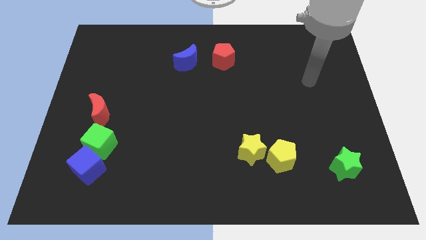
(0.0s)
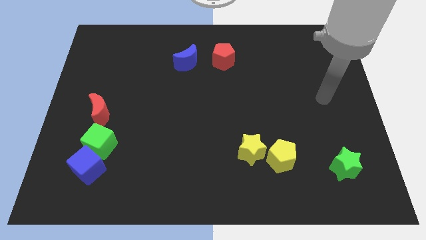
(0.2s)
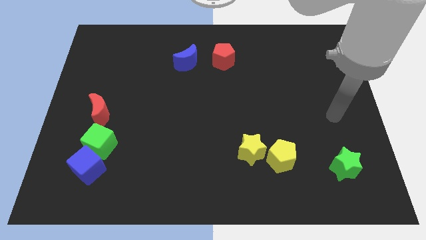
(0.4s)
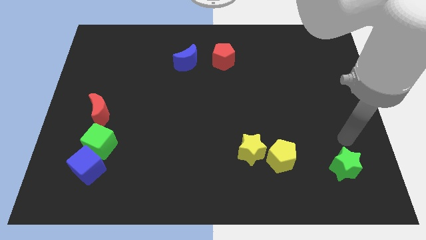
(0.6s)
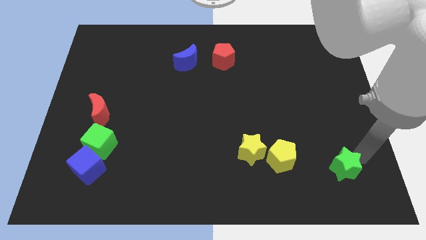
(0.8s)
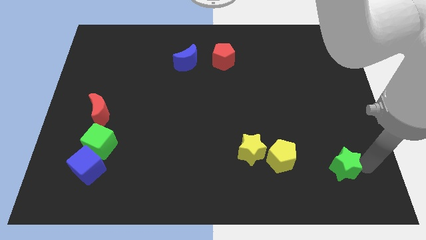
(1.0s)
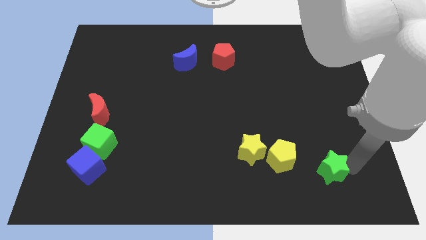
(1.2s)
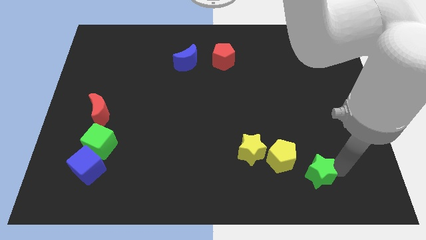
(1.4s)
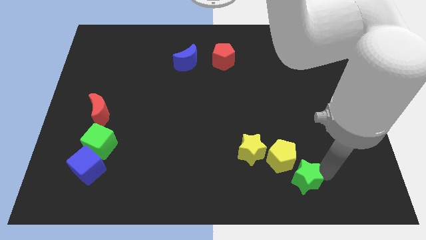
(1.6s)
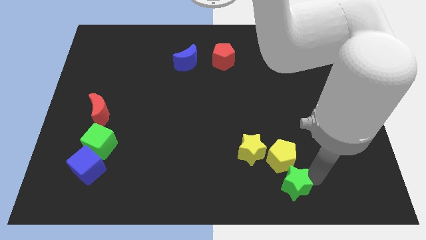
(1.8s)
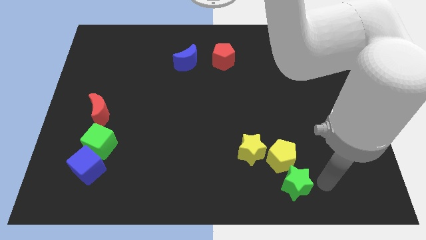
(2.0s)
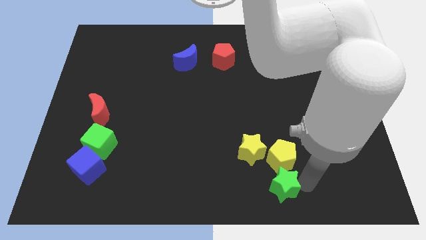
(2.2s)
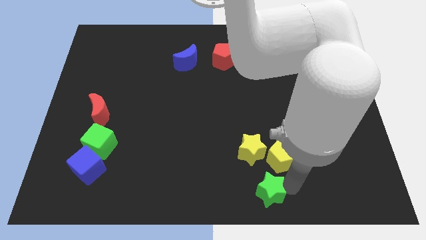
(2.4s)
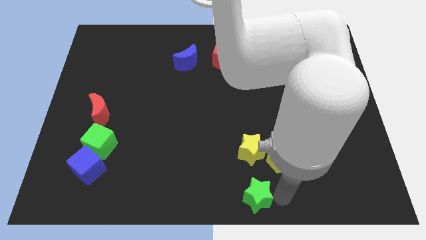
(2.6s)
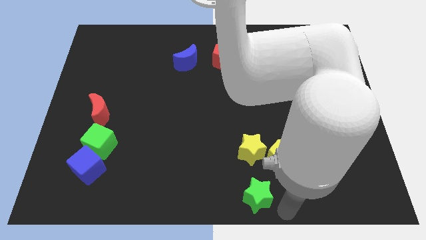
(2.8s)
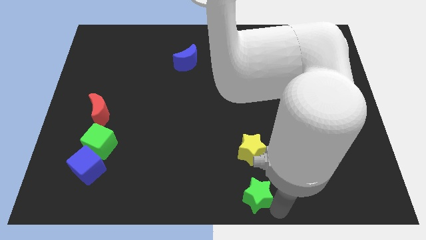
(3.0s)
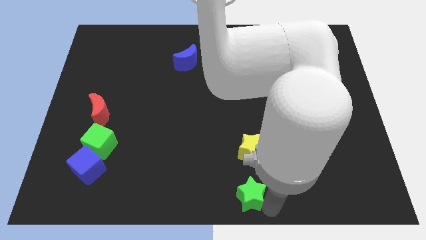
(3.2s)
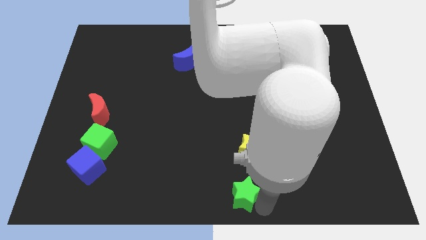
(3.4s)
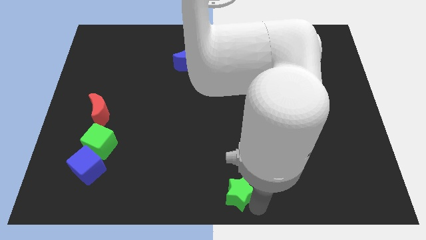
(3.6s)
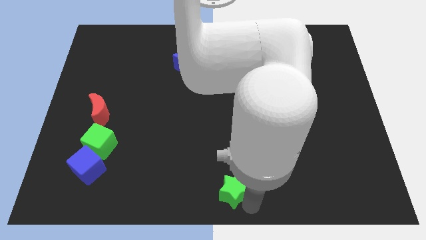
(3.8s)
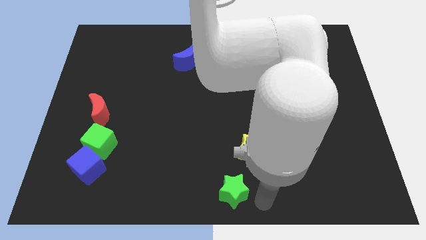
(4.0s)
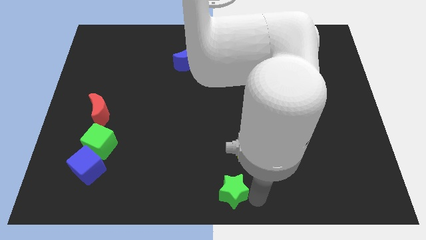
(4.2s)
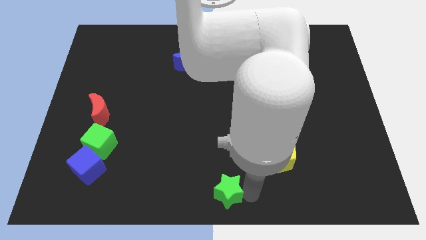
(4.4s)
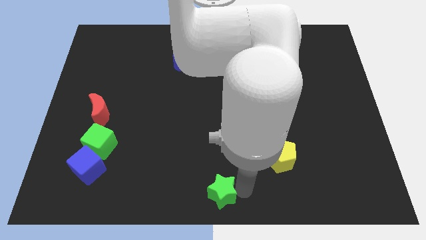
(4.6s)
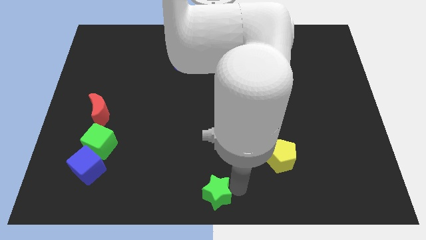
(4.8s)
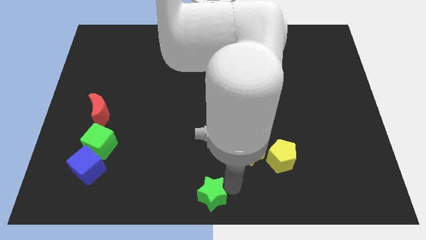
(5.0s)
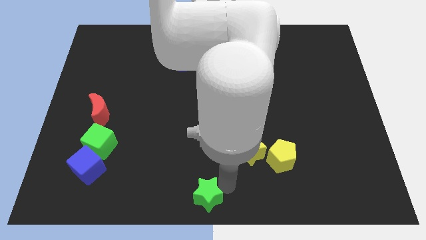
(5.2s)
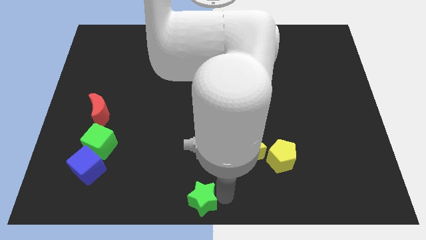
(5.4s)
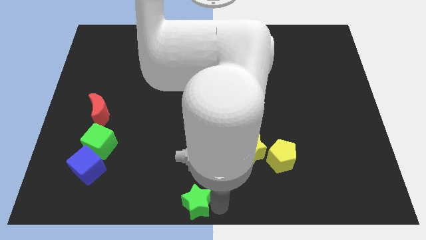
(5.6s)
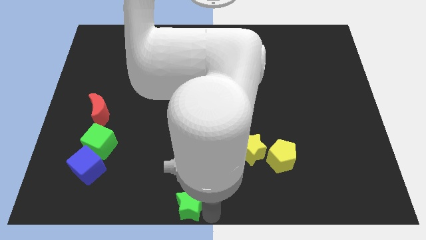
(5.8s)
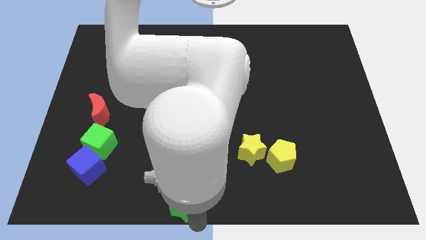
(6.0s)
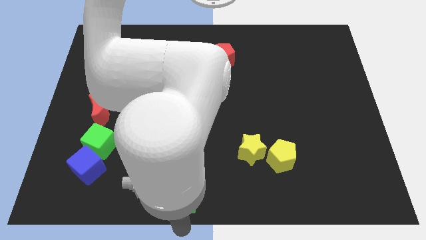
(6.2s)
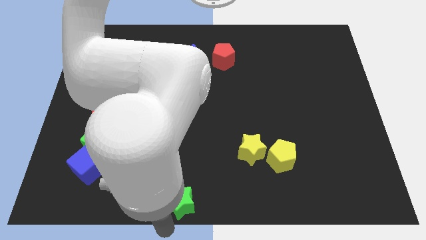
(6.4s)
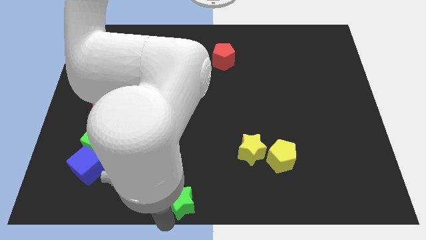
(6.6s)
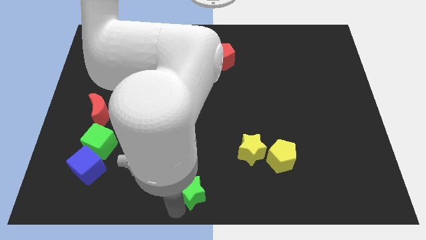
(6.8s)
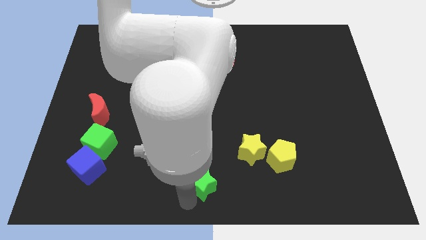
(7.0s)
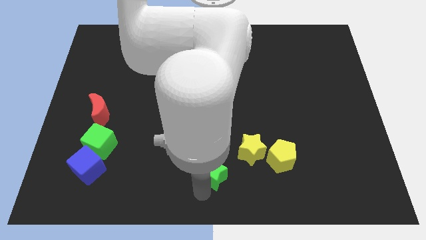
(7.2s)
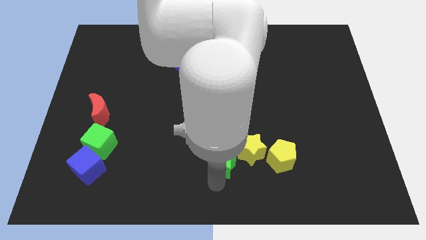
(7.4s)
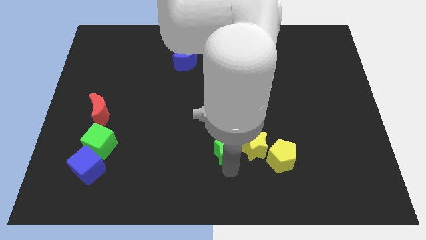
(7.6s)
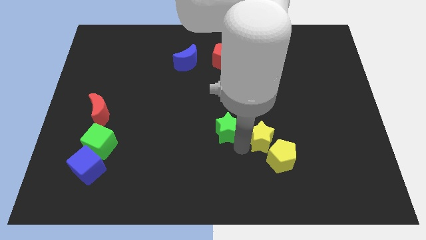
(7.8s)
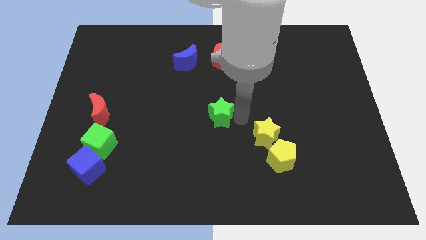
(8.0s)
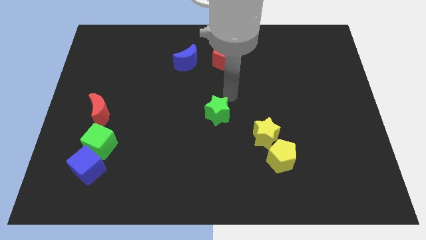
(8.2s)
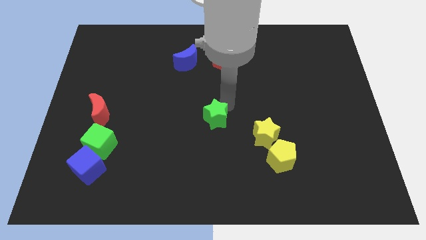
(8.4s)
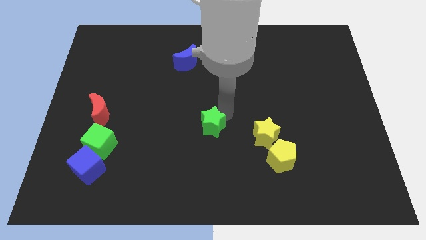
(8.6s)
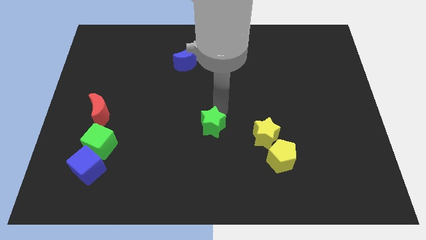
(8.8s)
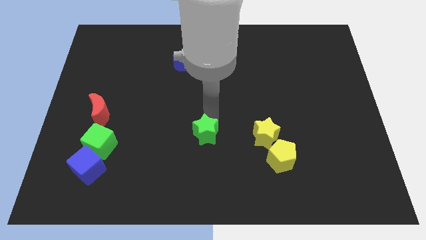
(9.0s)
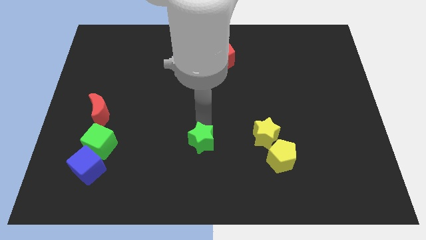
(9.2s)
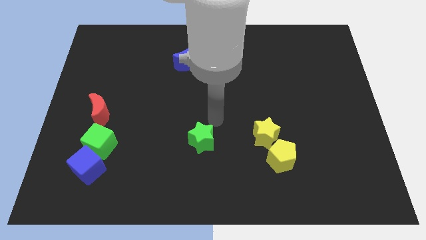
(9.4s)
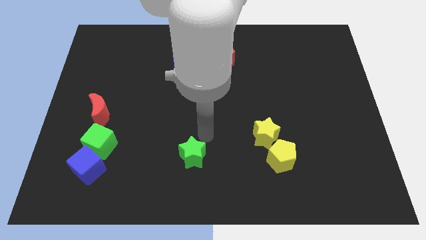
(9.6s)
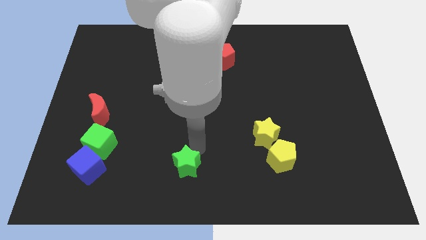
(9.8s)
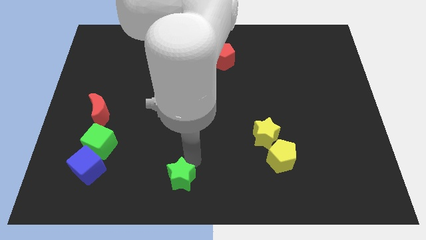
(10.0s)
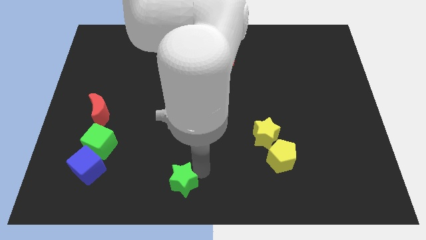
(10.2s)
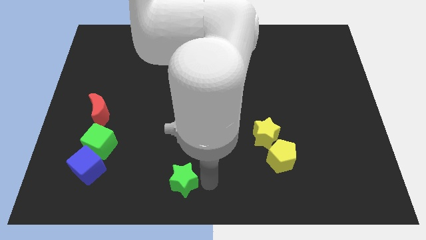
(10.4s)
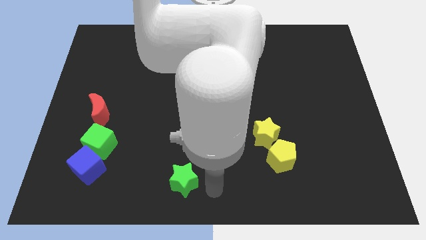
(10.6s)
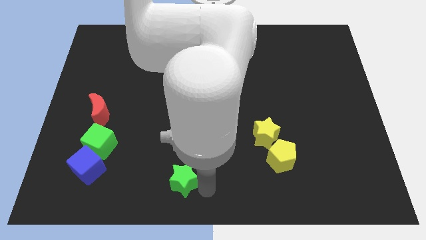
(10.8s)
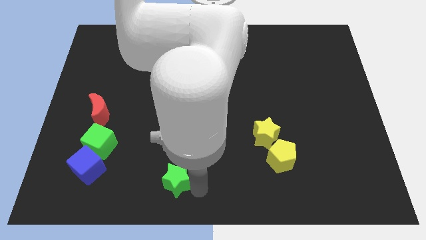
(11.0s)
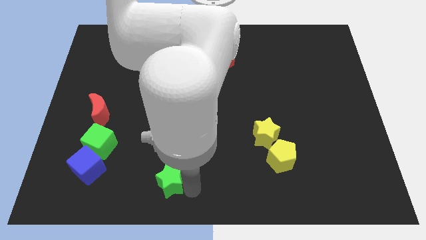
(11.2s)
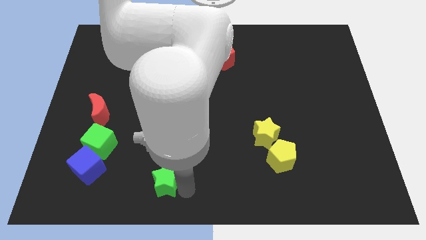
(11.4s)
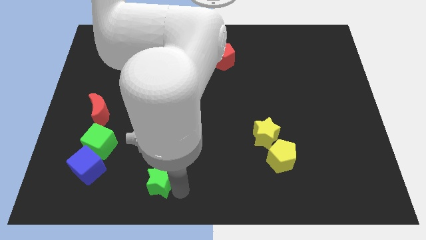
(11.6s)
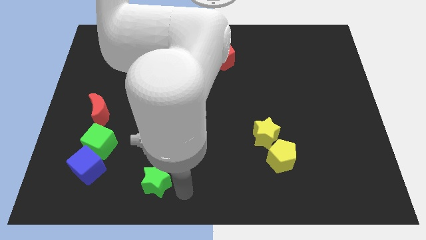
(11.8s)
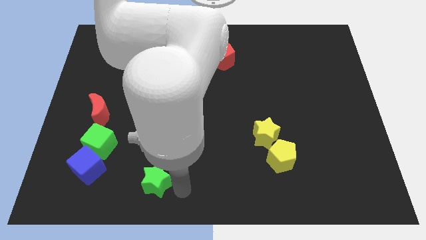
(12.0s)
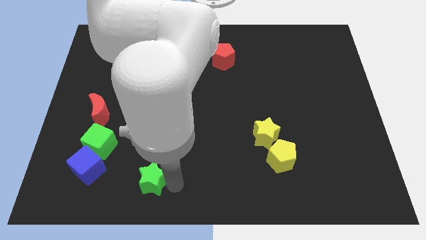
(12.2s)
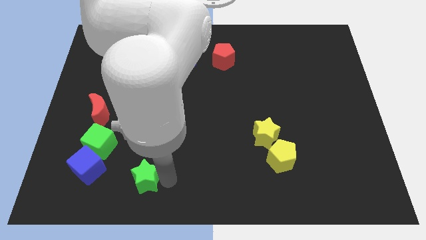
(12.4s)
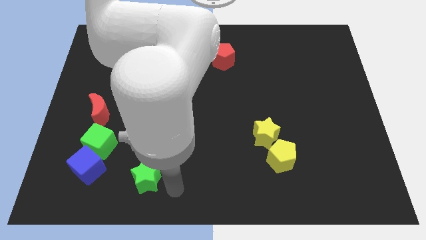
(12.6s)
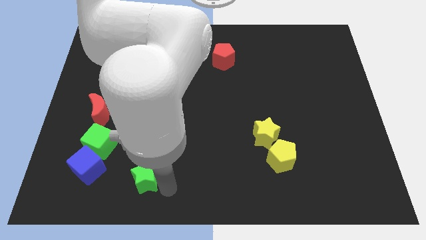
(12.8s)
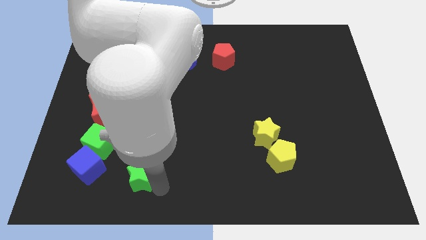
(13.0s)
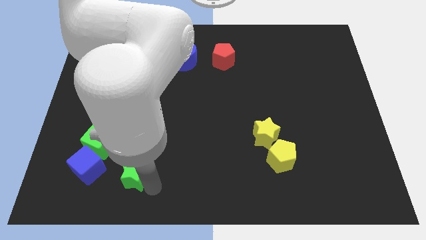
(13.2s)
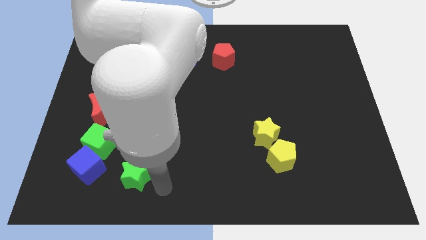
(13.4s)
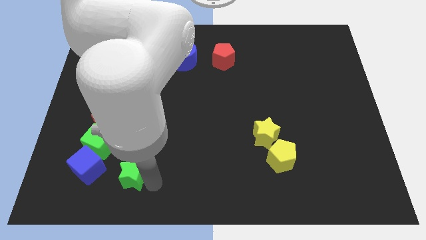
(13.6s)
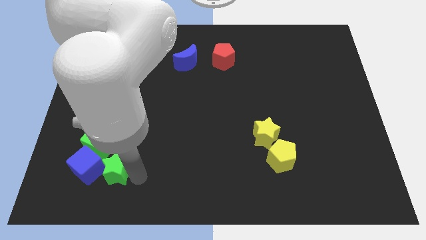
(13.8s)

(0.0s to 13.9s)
move the green star towards the blue cube
